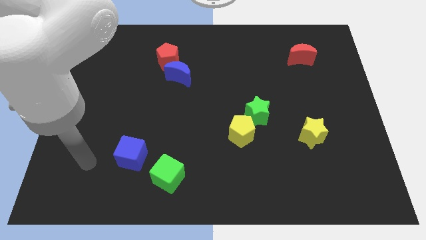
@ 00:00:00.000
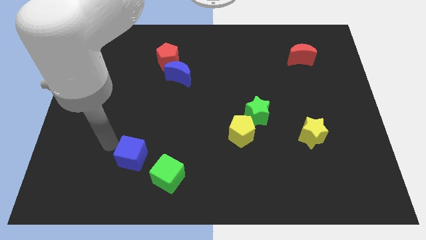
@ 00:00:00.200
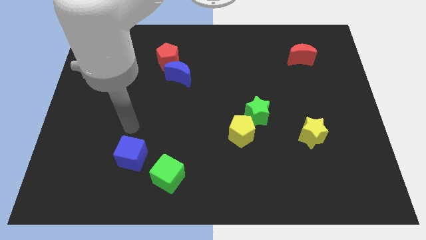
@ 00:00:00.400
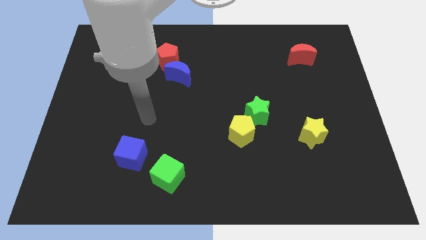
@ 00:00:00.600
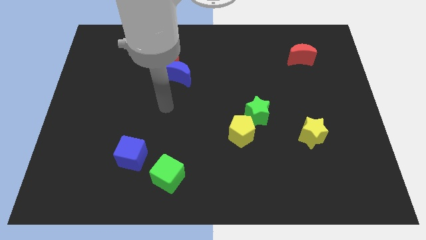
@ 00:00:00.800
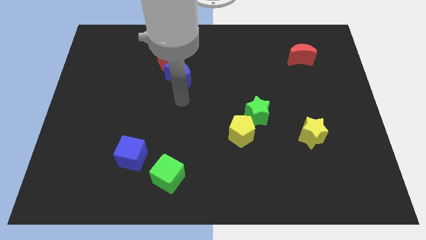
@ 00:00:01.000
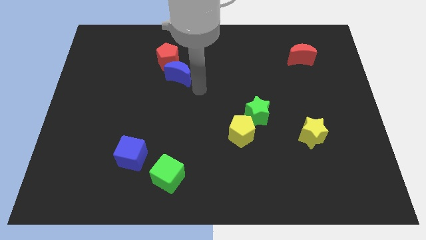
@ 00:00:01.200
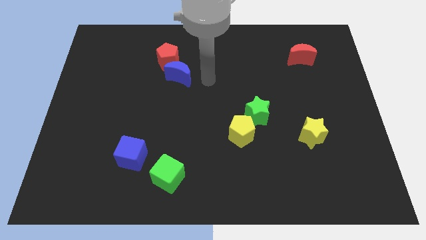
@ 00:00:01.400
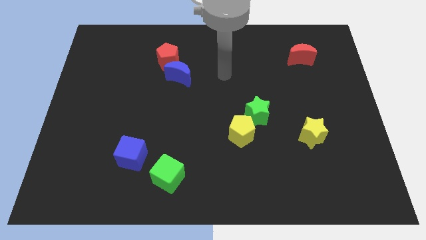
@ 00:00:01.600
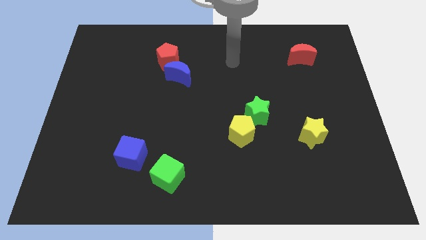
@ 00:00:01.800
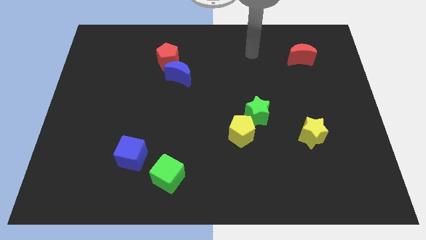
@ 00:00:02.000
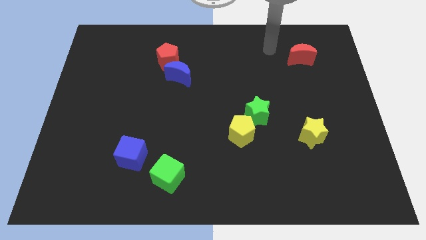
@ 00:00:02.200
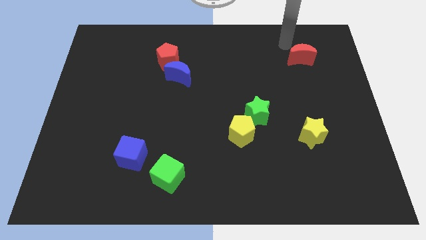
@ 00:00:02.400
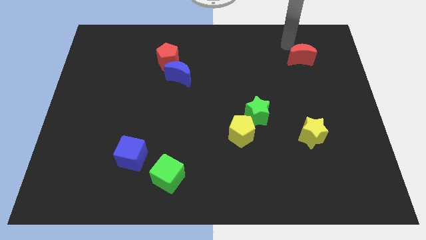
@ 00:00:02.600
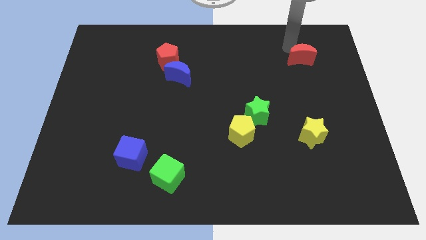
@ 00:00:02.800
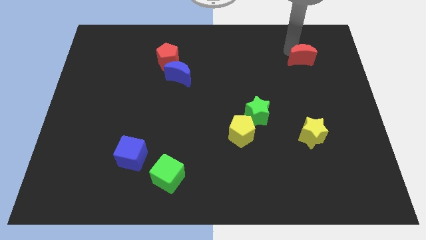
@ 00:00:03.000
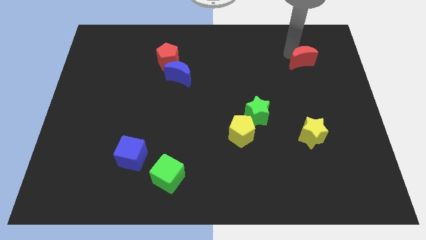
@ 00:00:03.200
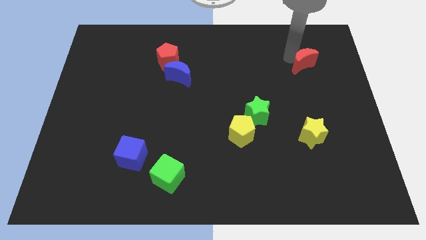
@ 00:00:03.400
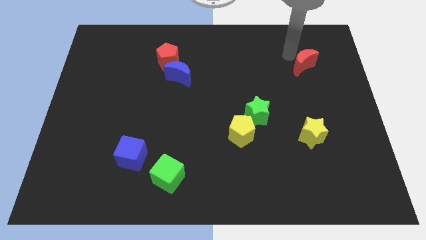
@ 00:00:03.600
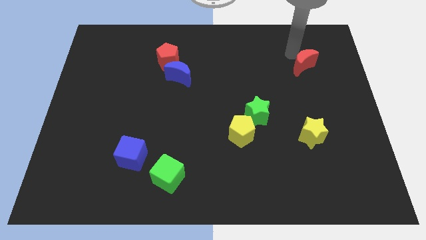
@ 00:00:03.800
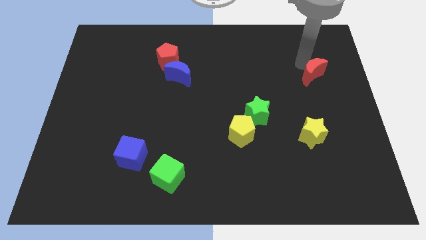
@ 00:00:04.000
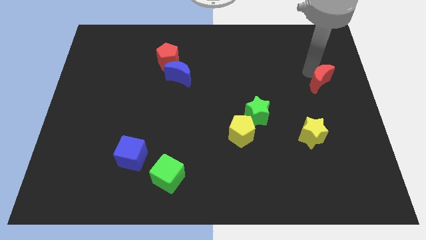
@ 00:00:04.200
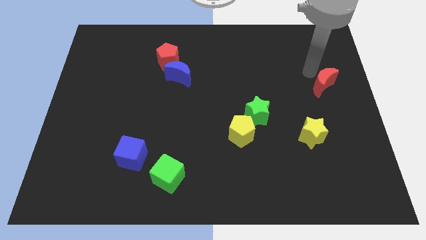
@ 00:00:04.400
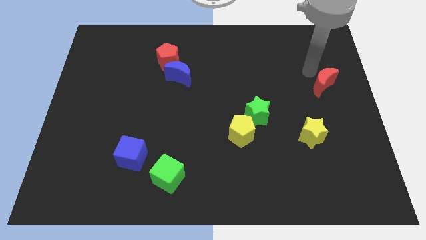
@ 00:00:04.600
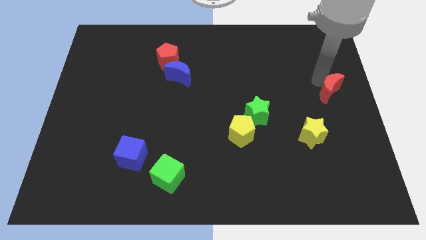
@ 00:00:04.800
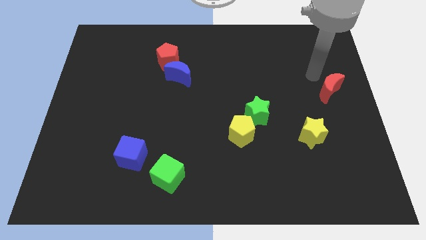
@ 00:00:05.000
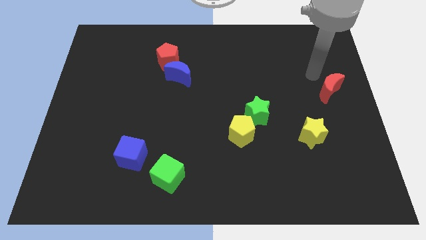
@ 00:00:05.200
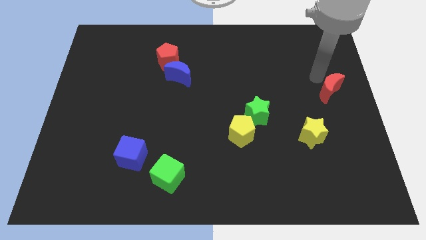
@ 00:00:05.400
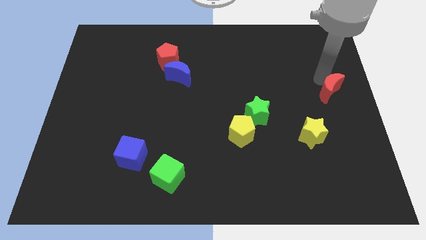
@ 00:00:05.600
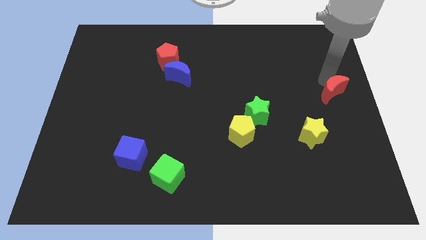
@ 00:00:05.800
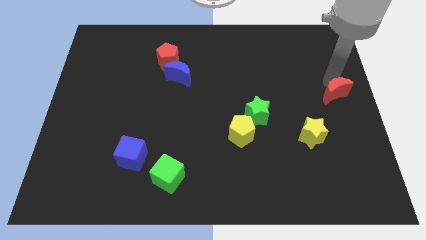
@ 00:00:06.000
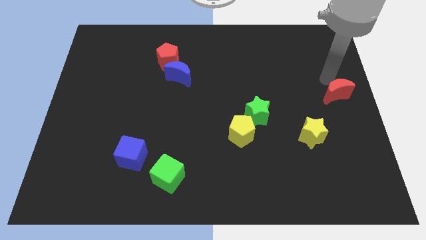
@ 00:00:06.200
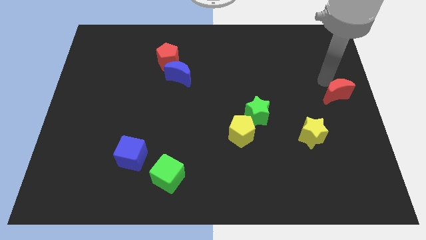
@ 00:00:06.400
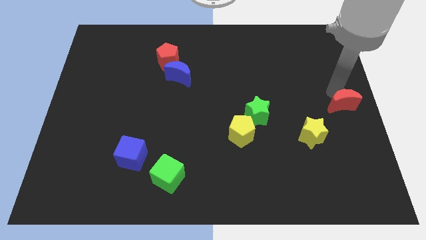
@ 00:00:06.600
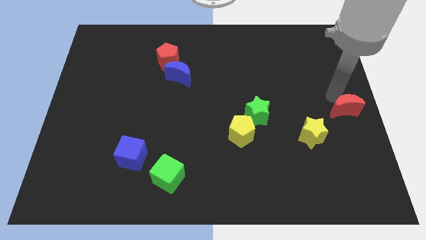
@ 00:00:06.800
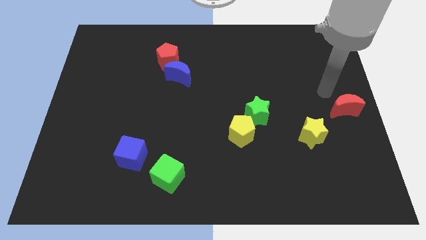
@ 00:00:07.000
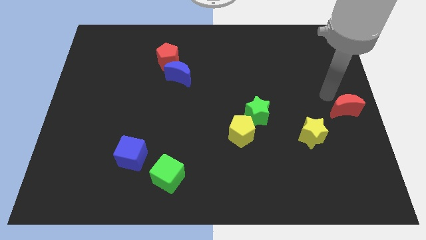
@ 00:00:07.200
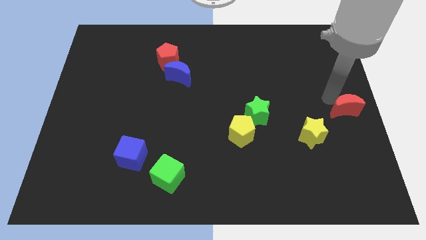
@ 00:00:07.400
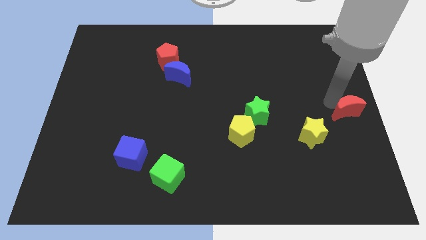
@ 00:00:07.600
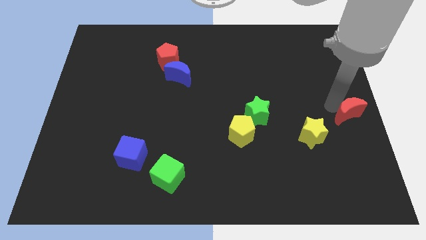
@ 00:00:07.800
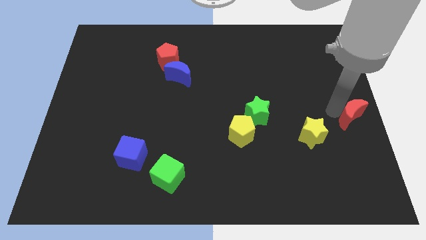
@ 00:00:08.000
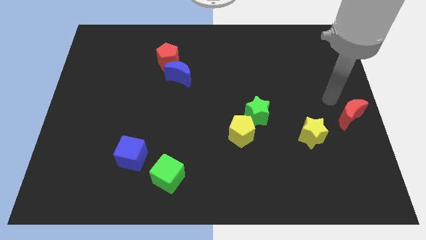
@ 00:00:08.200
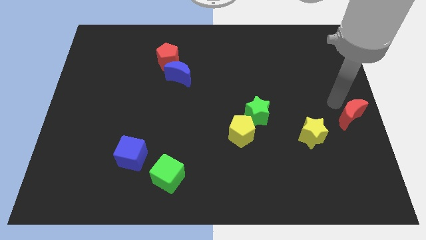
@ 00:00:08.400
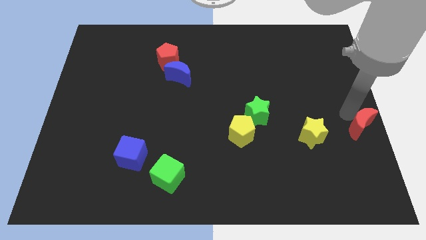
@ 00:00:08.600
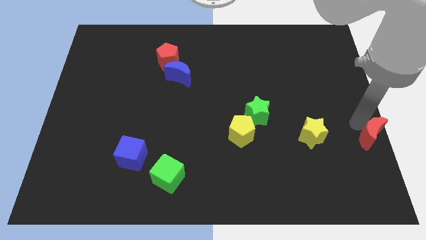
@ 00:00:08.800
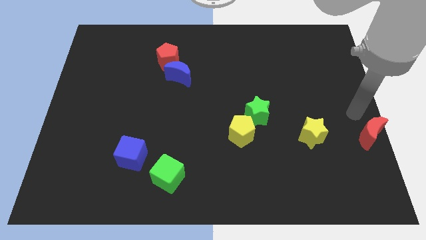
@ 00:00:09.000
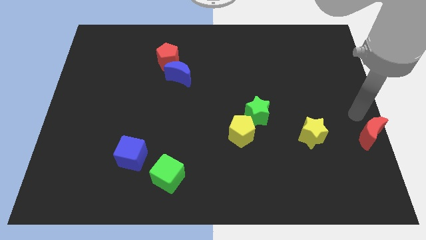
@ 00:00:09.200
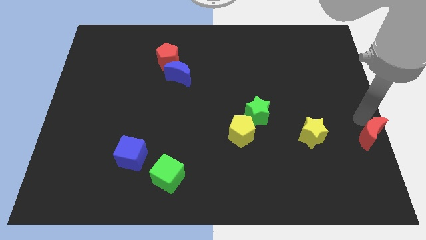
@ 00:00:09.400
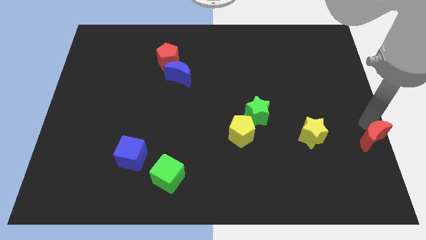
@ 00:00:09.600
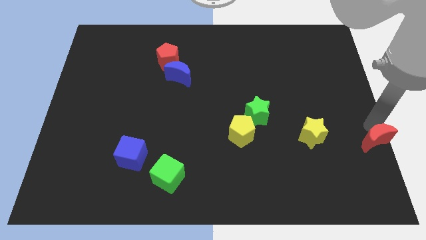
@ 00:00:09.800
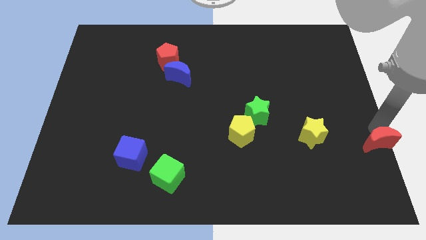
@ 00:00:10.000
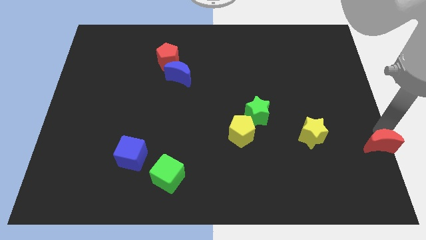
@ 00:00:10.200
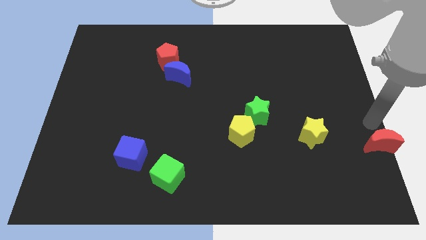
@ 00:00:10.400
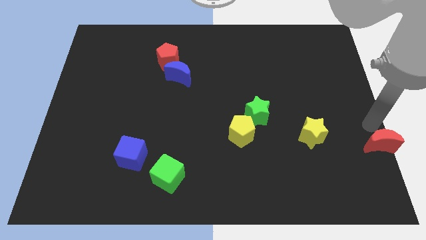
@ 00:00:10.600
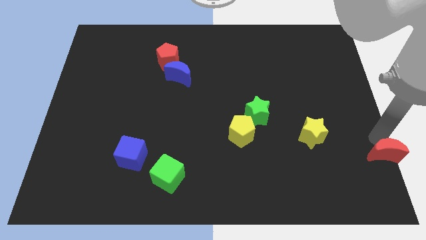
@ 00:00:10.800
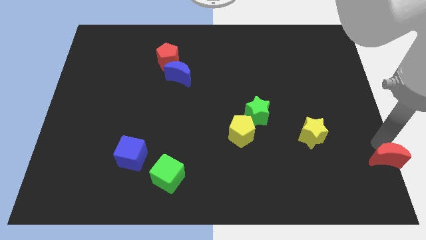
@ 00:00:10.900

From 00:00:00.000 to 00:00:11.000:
put the red moon to the bottom right

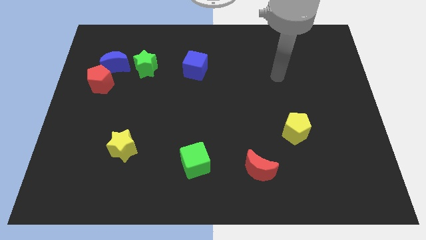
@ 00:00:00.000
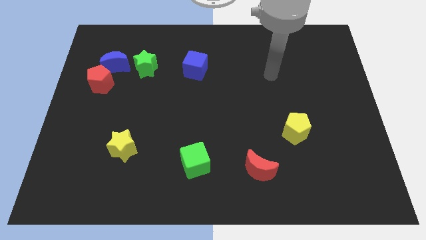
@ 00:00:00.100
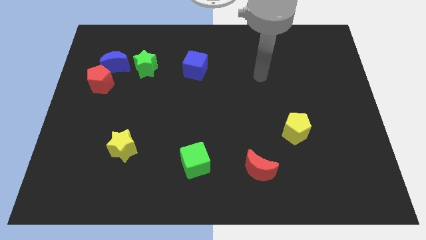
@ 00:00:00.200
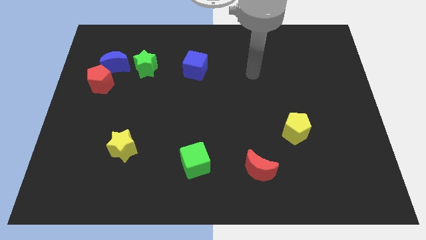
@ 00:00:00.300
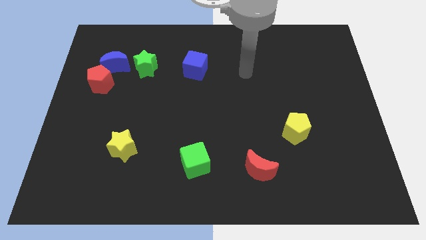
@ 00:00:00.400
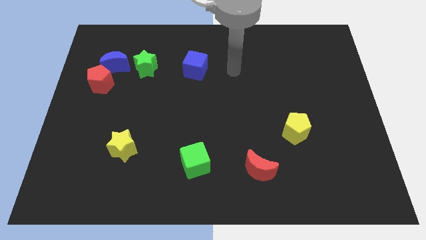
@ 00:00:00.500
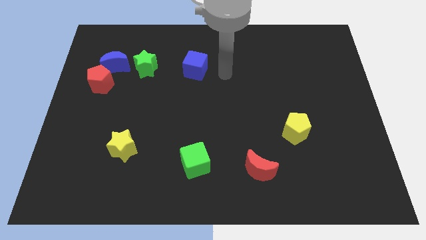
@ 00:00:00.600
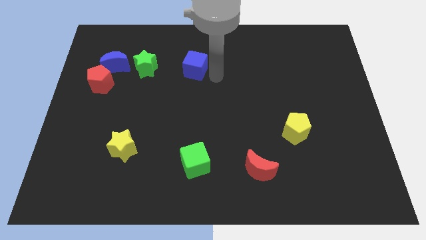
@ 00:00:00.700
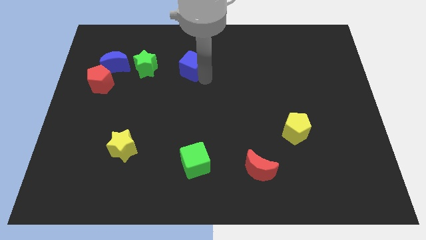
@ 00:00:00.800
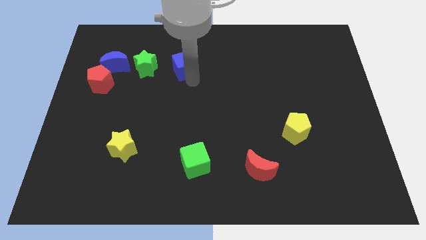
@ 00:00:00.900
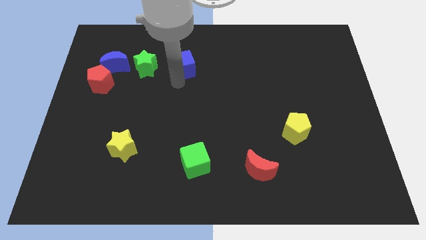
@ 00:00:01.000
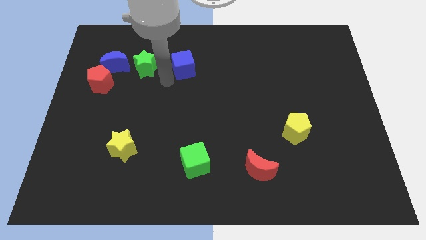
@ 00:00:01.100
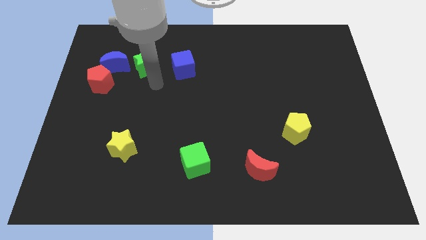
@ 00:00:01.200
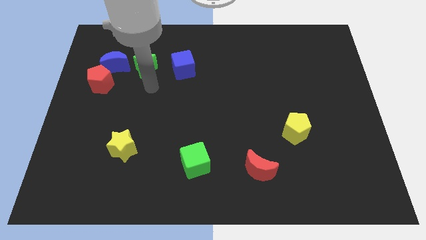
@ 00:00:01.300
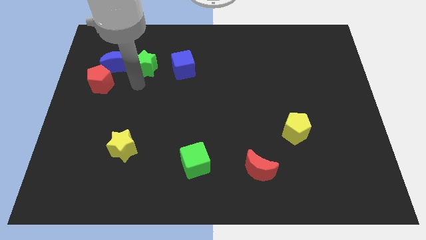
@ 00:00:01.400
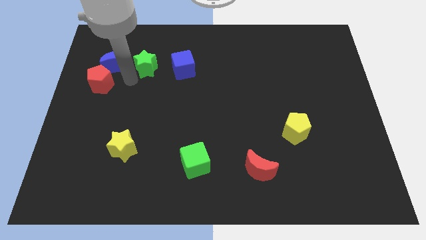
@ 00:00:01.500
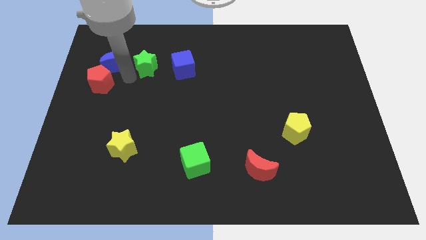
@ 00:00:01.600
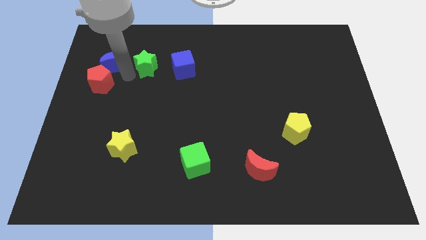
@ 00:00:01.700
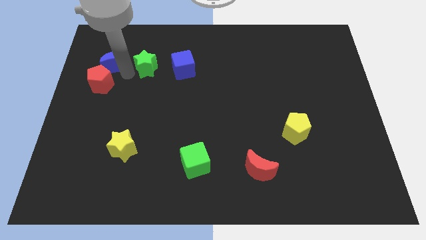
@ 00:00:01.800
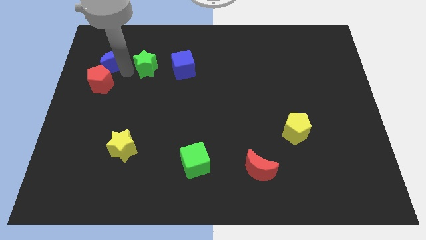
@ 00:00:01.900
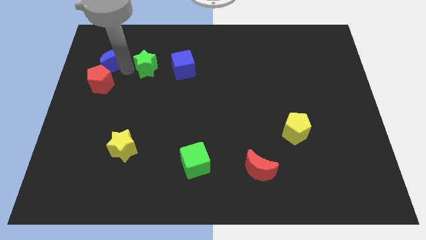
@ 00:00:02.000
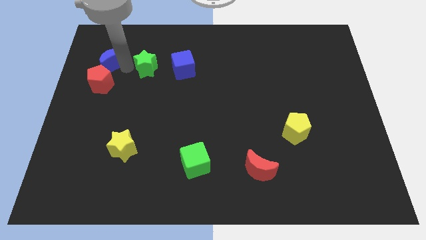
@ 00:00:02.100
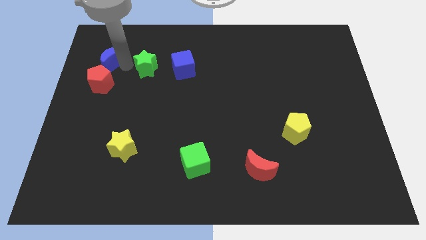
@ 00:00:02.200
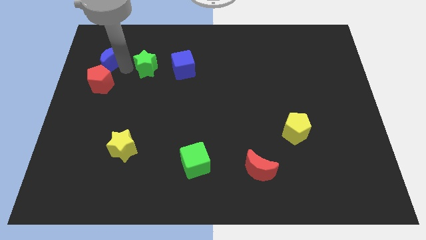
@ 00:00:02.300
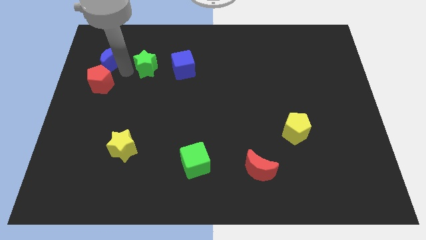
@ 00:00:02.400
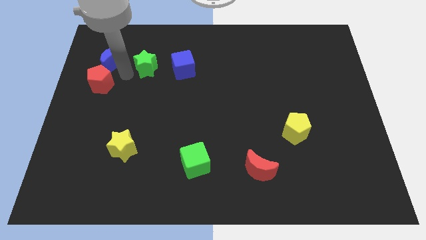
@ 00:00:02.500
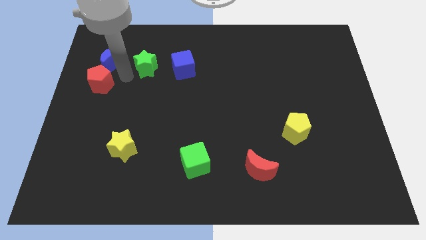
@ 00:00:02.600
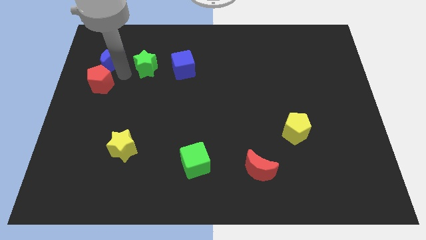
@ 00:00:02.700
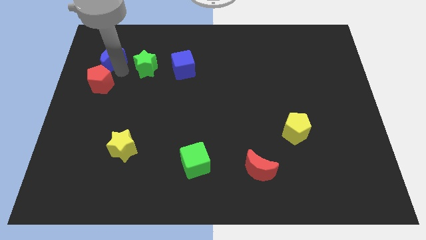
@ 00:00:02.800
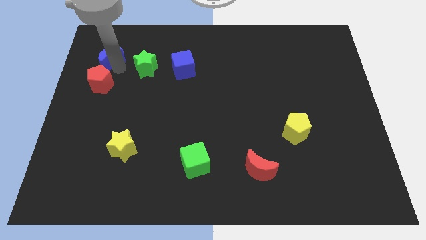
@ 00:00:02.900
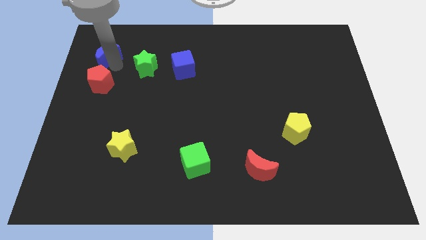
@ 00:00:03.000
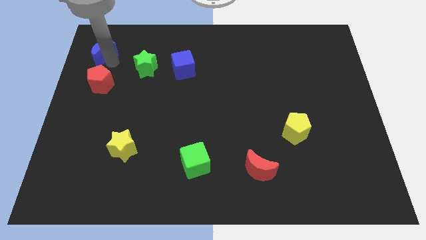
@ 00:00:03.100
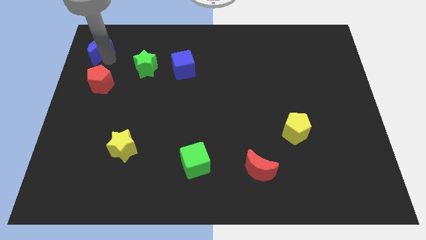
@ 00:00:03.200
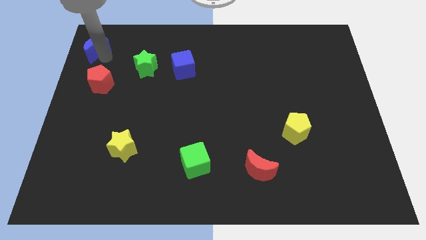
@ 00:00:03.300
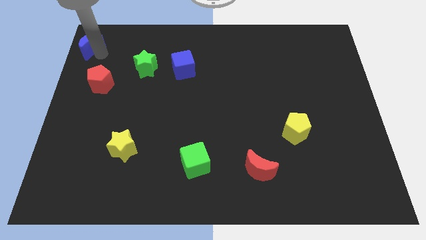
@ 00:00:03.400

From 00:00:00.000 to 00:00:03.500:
move the blue moon to the top left of the board
